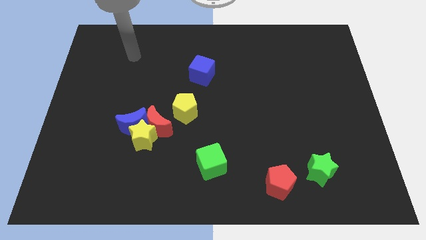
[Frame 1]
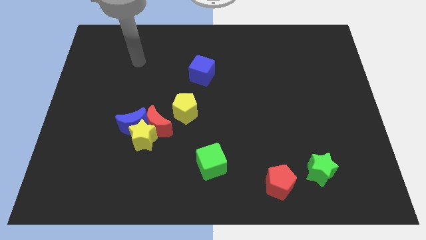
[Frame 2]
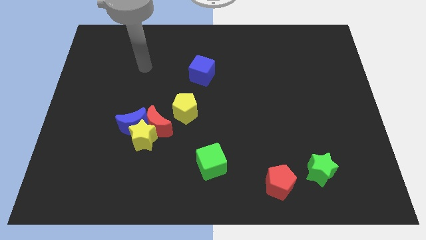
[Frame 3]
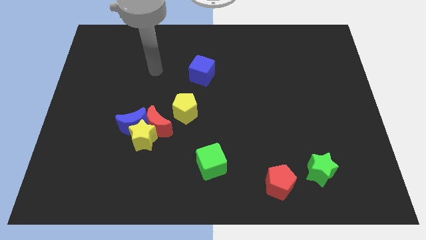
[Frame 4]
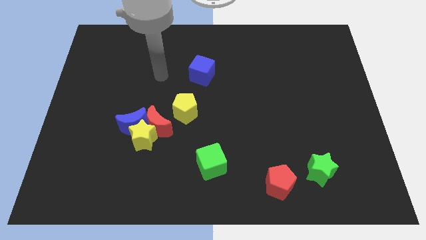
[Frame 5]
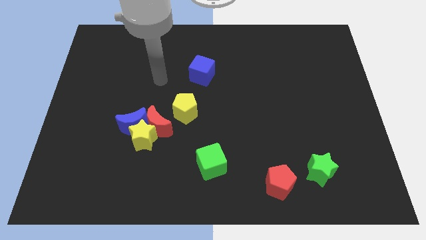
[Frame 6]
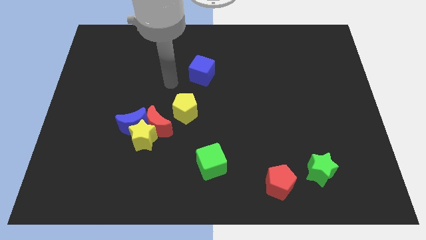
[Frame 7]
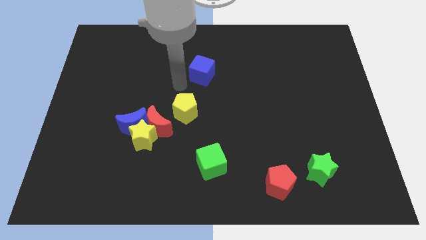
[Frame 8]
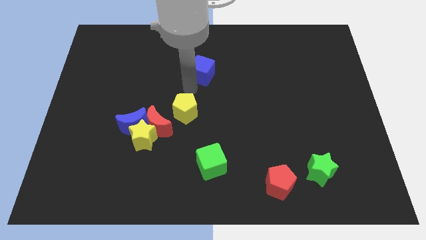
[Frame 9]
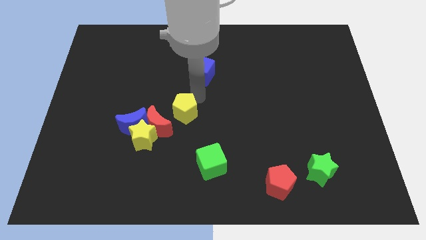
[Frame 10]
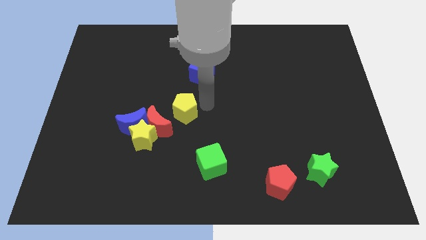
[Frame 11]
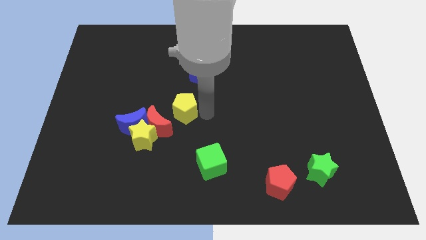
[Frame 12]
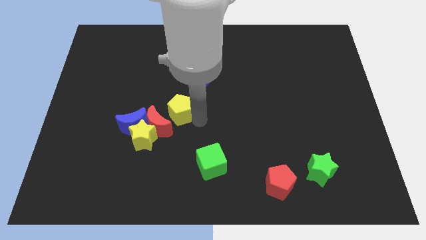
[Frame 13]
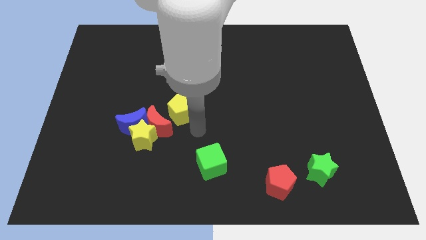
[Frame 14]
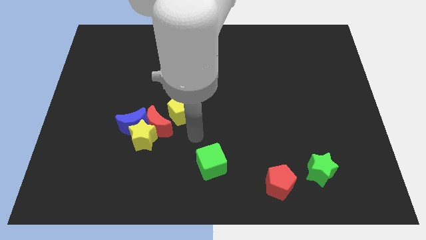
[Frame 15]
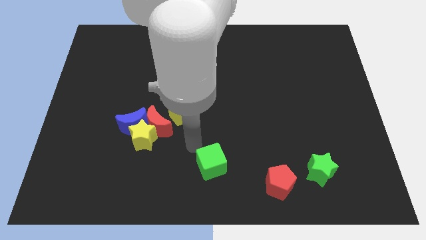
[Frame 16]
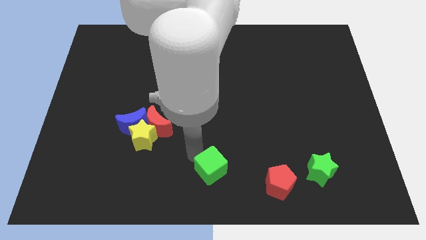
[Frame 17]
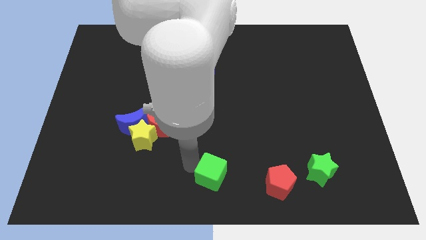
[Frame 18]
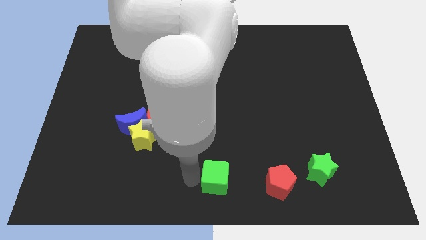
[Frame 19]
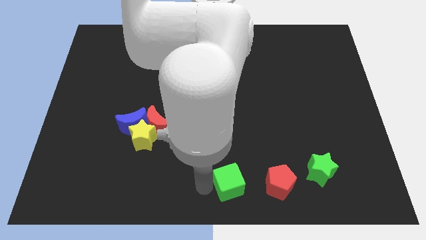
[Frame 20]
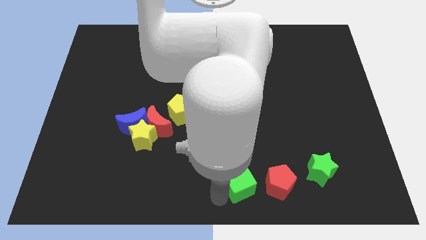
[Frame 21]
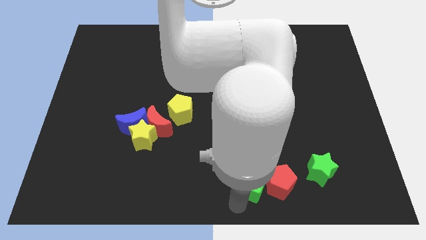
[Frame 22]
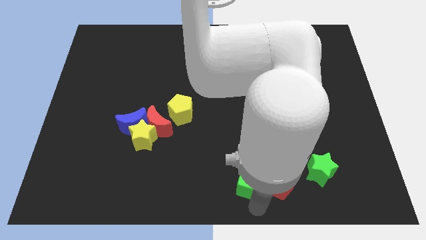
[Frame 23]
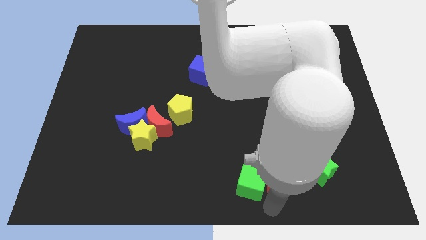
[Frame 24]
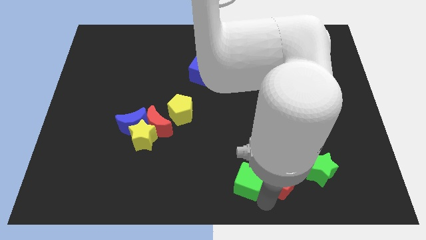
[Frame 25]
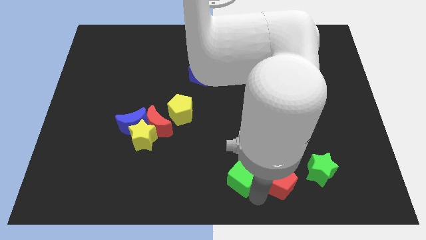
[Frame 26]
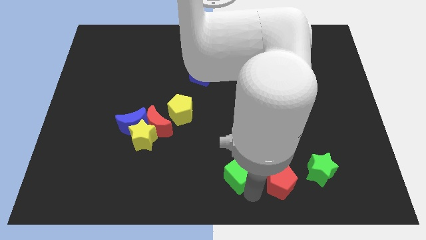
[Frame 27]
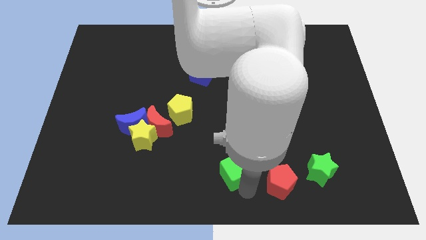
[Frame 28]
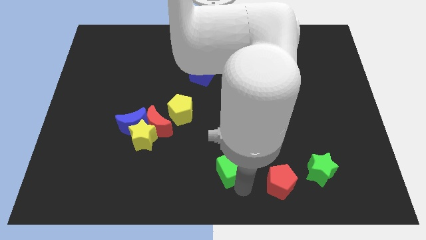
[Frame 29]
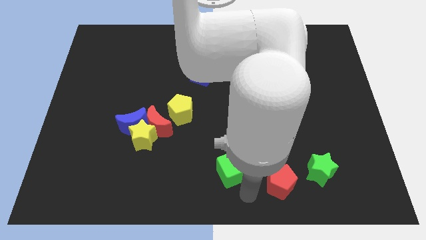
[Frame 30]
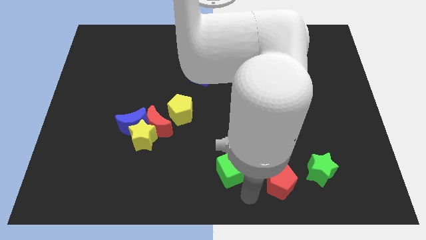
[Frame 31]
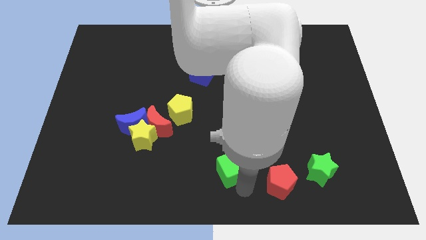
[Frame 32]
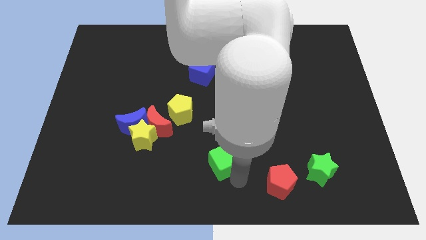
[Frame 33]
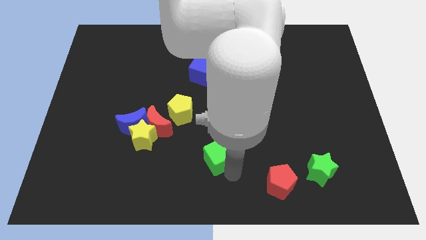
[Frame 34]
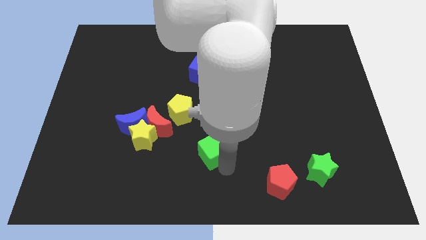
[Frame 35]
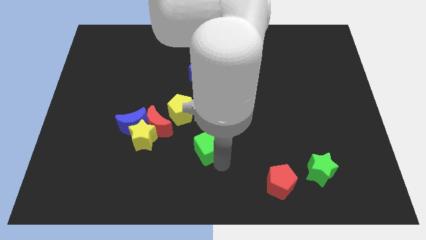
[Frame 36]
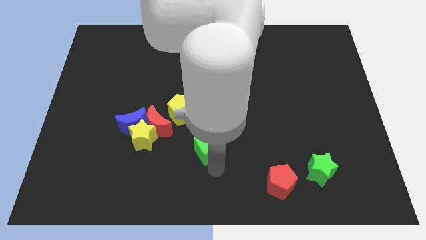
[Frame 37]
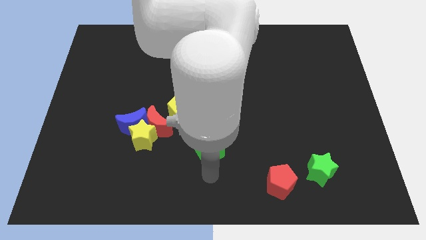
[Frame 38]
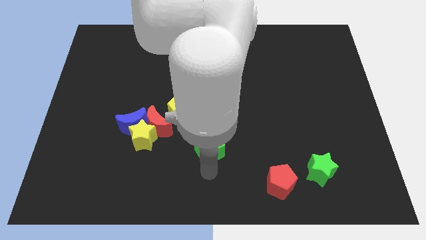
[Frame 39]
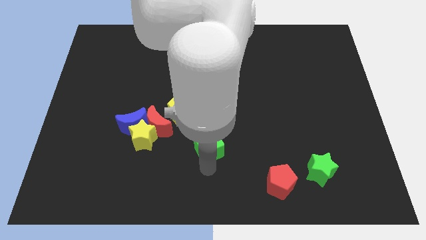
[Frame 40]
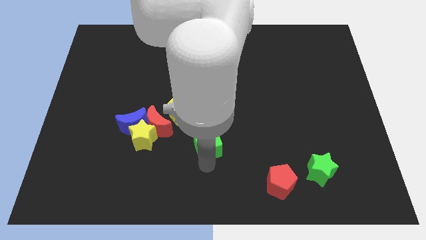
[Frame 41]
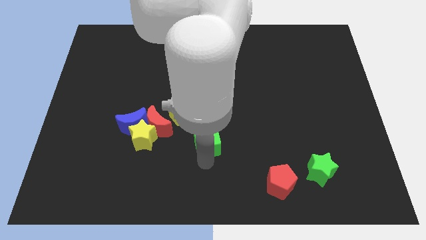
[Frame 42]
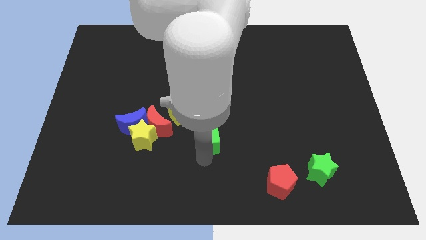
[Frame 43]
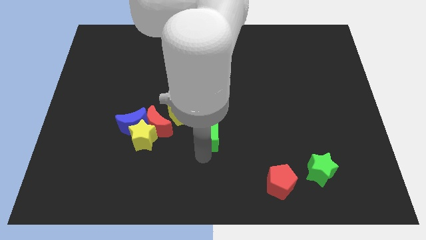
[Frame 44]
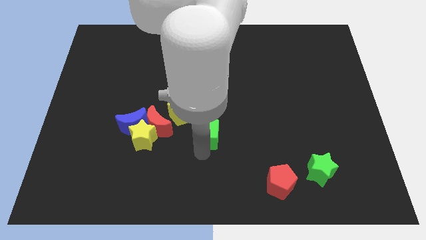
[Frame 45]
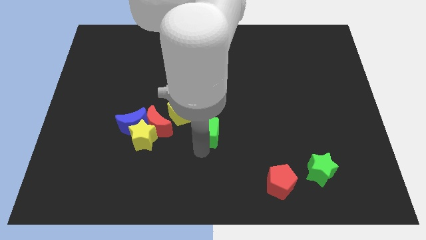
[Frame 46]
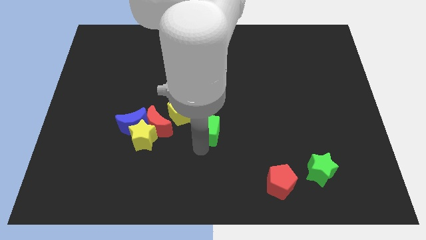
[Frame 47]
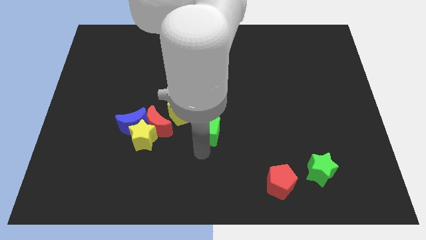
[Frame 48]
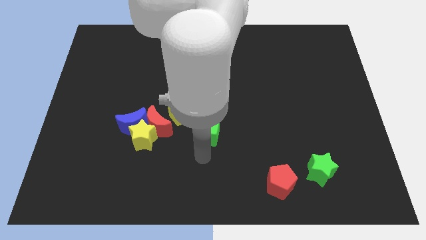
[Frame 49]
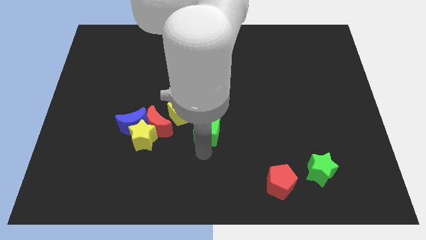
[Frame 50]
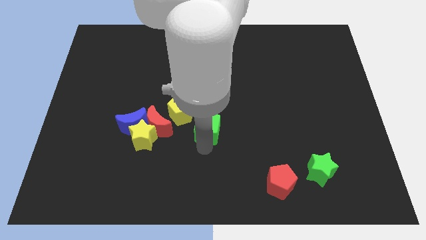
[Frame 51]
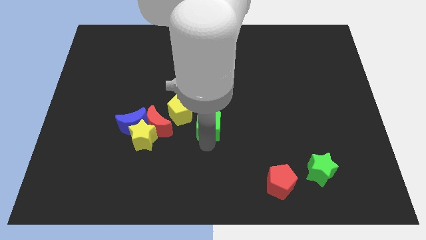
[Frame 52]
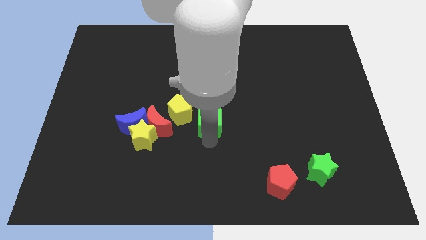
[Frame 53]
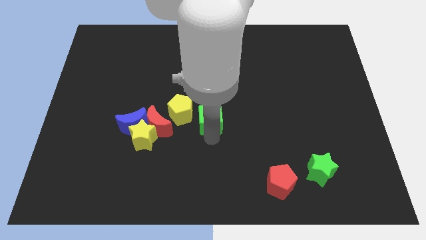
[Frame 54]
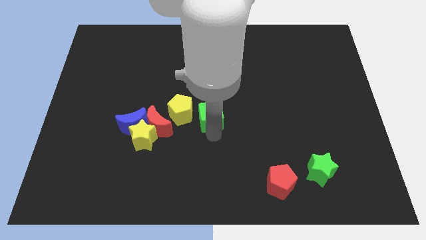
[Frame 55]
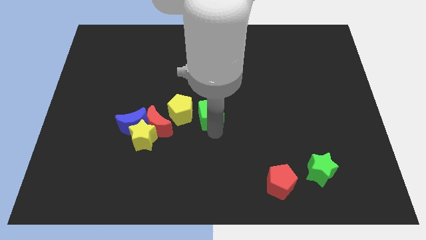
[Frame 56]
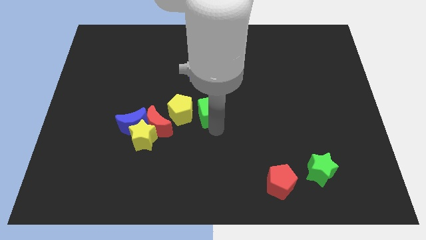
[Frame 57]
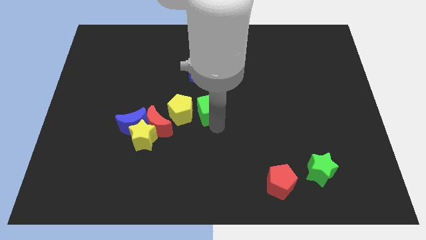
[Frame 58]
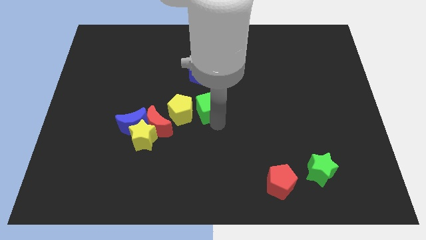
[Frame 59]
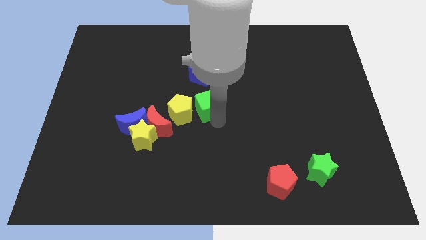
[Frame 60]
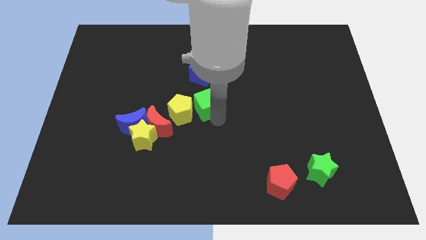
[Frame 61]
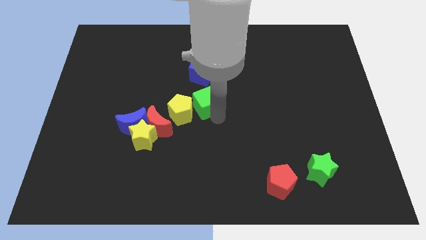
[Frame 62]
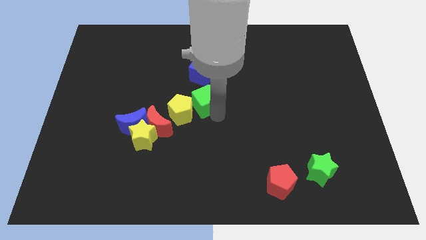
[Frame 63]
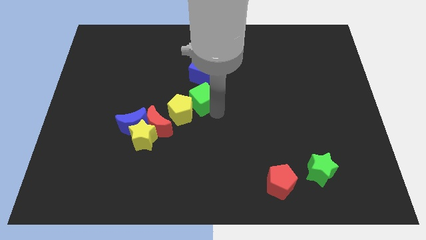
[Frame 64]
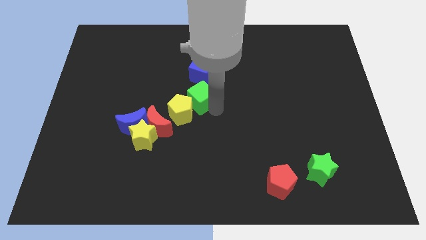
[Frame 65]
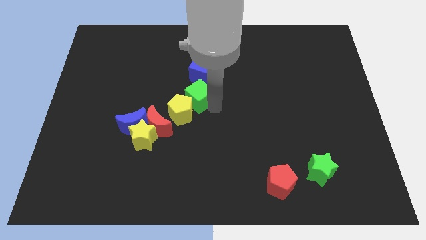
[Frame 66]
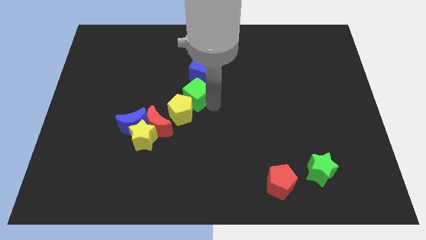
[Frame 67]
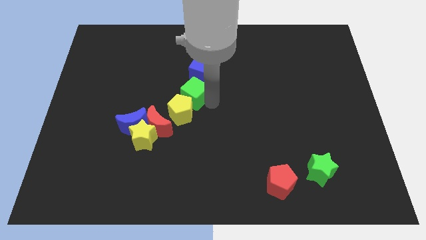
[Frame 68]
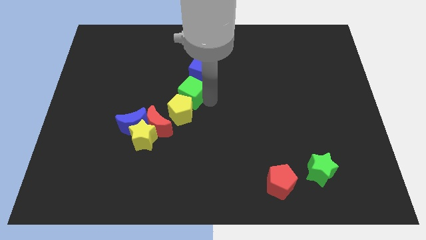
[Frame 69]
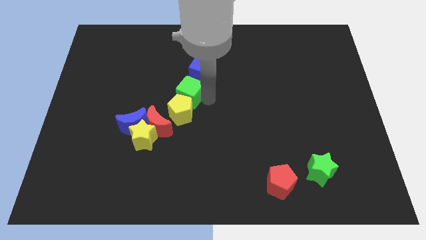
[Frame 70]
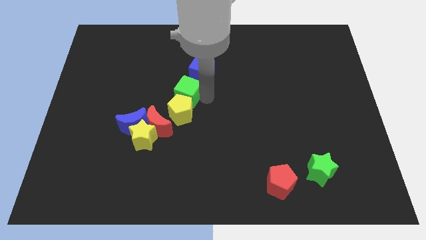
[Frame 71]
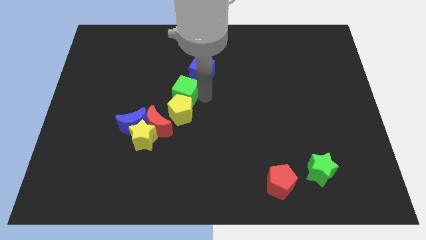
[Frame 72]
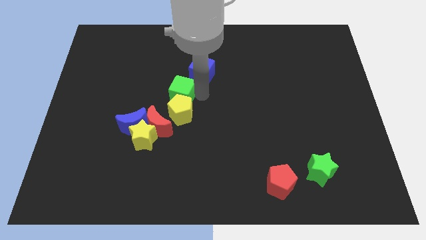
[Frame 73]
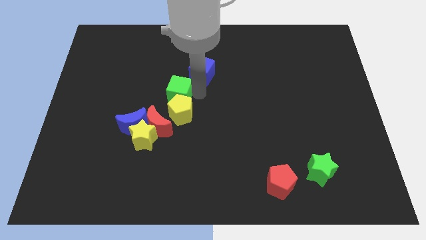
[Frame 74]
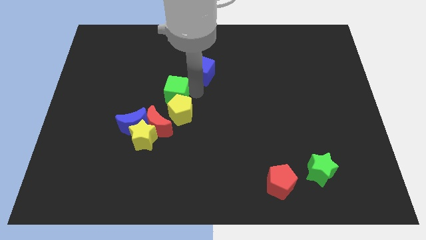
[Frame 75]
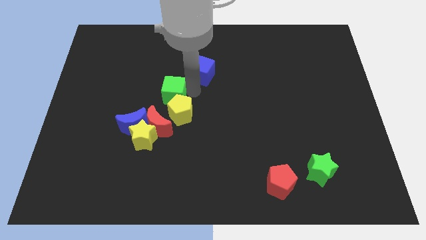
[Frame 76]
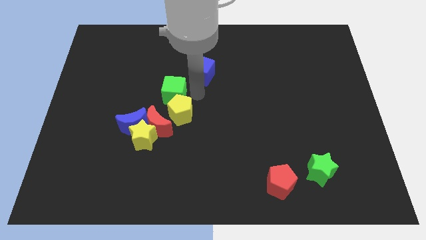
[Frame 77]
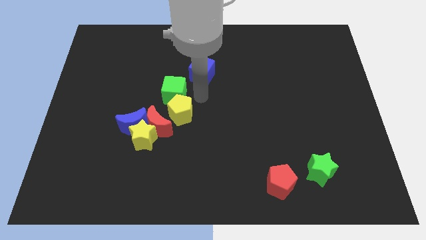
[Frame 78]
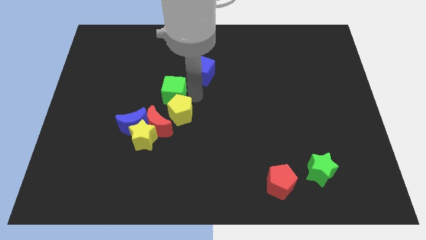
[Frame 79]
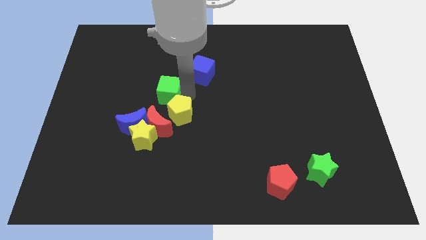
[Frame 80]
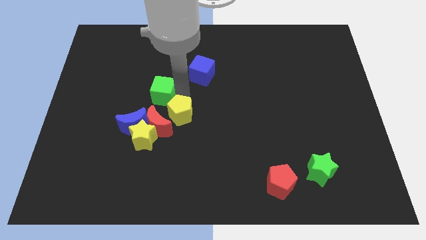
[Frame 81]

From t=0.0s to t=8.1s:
move the green cube upwards and then left
